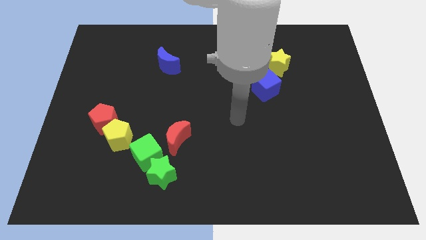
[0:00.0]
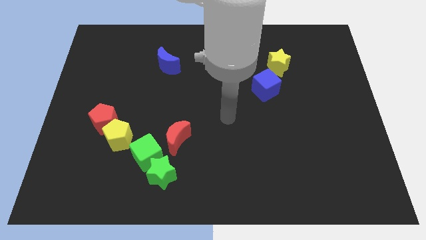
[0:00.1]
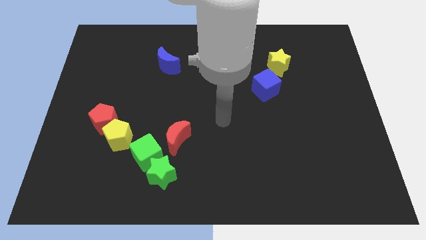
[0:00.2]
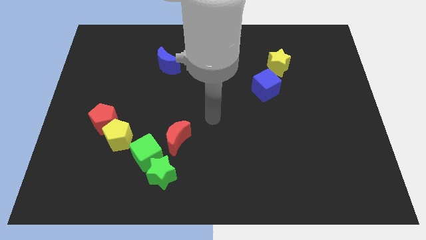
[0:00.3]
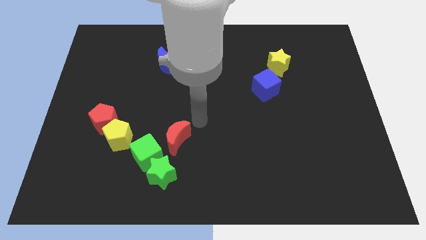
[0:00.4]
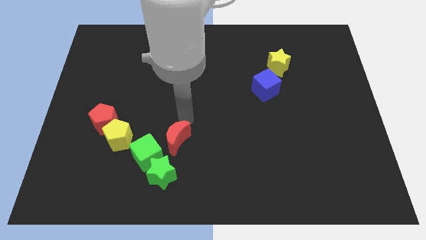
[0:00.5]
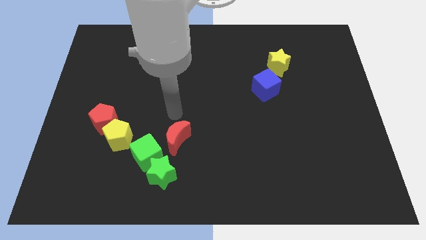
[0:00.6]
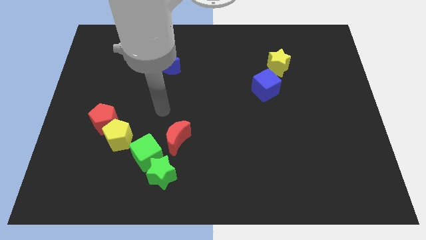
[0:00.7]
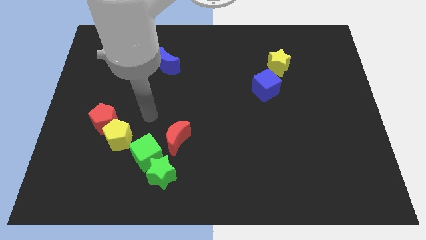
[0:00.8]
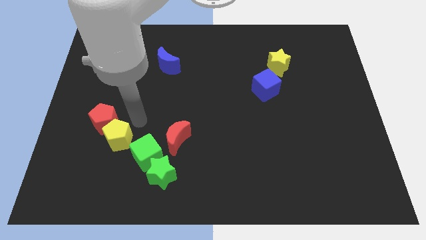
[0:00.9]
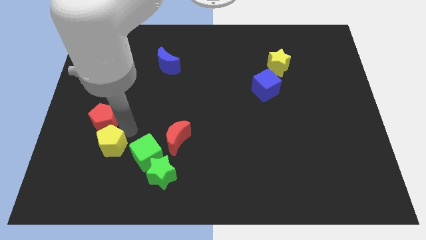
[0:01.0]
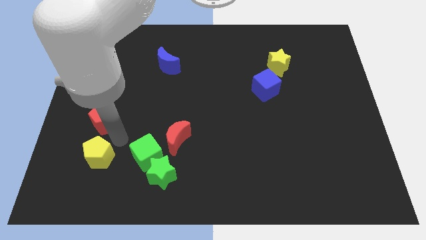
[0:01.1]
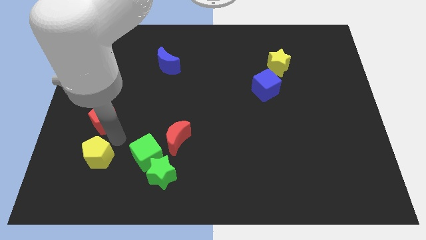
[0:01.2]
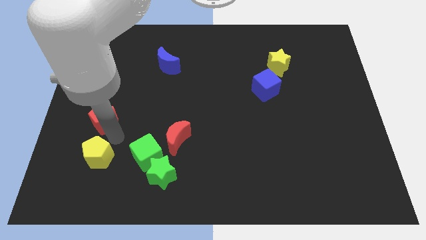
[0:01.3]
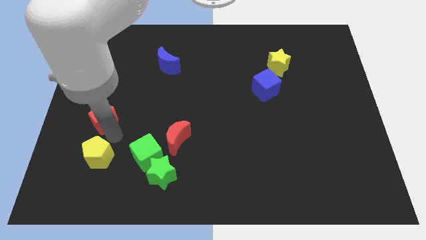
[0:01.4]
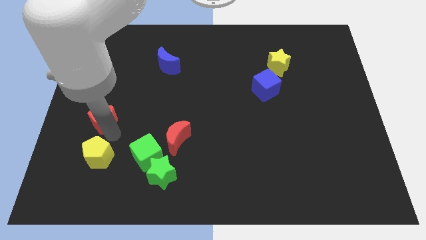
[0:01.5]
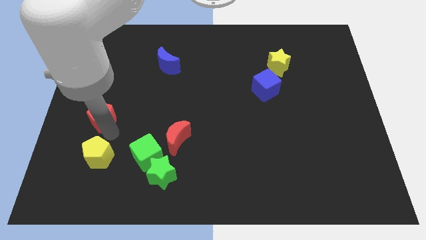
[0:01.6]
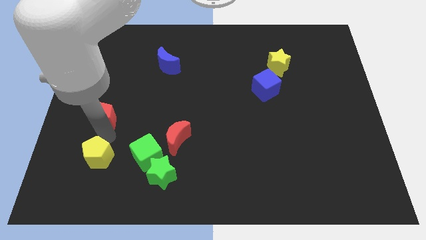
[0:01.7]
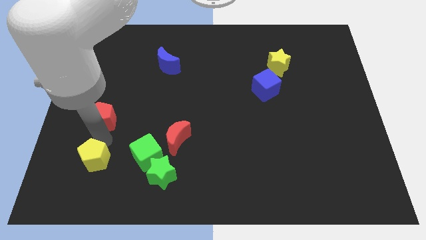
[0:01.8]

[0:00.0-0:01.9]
separate the red pentagon from the yellow pentagon

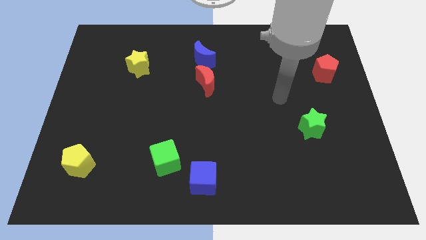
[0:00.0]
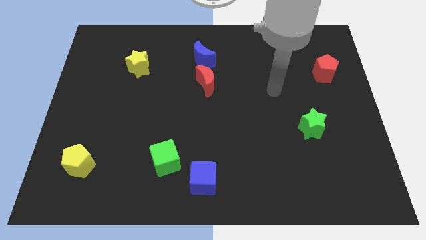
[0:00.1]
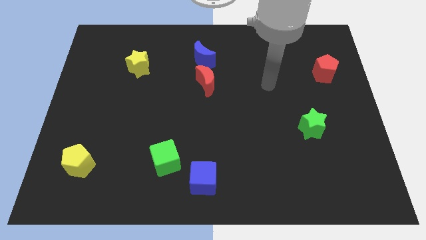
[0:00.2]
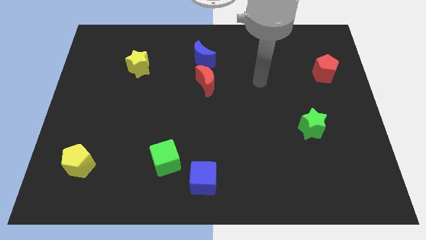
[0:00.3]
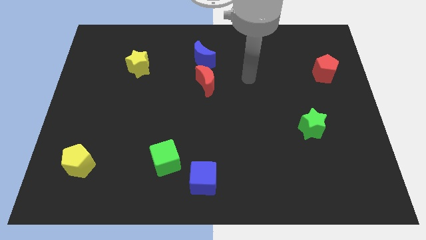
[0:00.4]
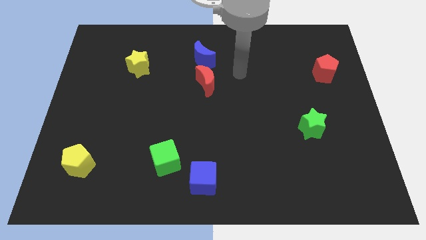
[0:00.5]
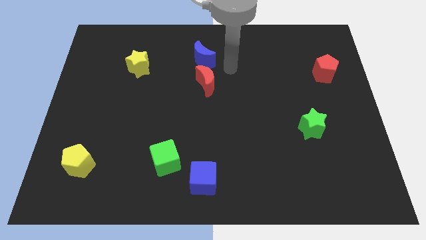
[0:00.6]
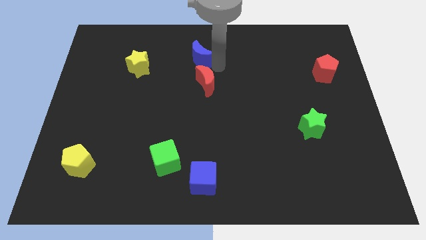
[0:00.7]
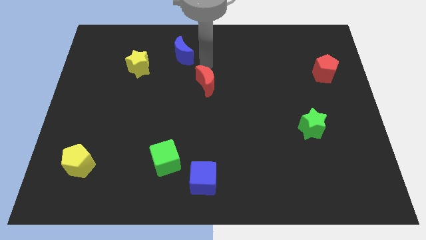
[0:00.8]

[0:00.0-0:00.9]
move the red moon away from the blue moon

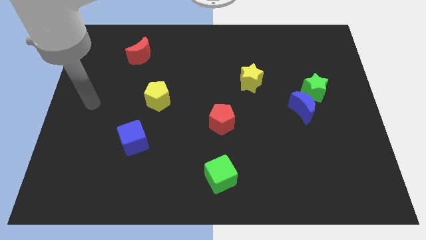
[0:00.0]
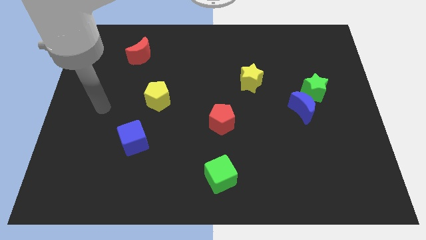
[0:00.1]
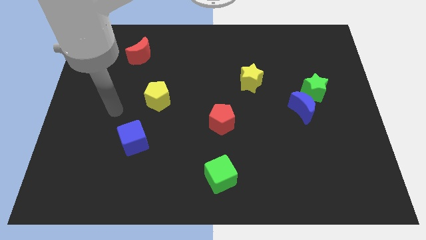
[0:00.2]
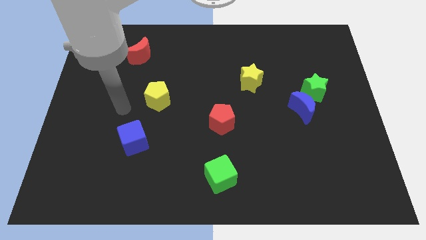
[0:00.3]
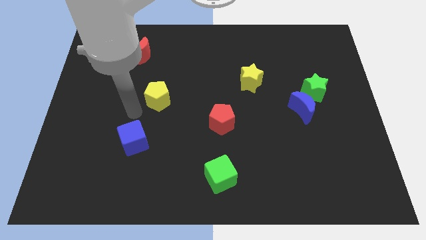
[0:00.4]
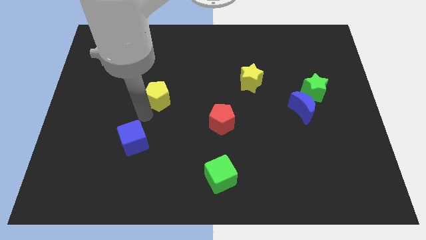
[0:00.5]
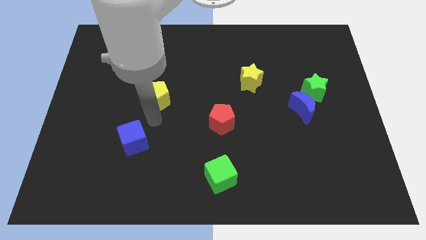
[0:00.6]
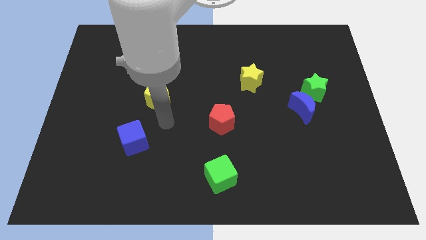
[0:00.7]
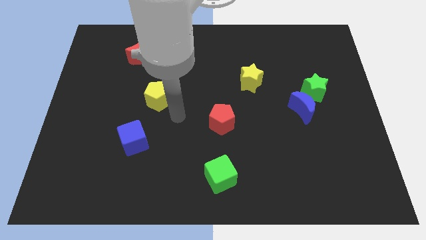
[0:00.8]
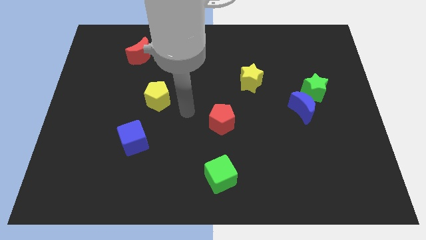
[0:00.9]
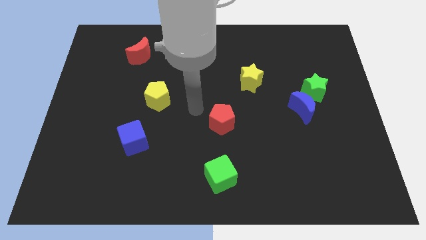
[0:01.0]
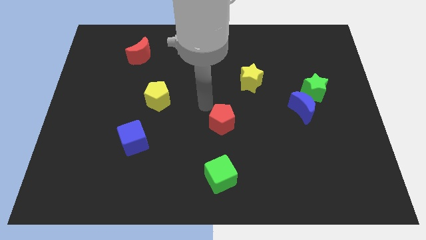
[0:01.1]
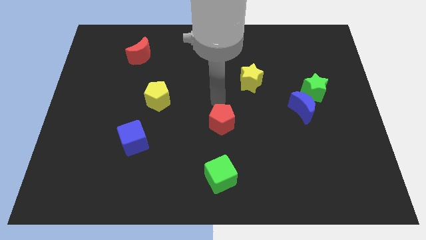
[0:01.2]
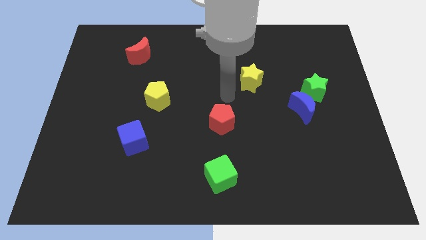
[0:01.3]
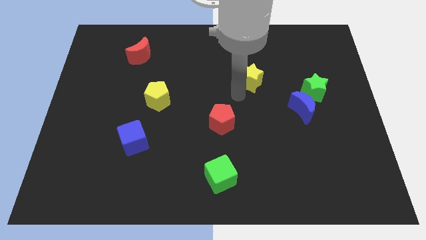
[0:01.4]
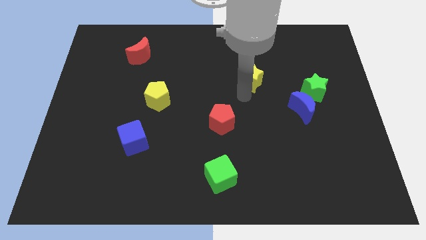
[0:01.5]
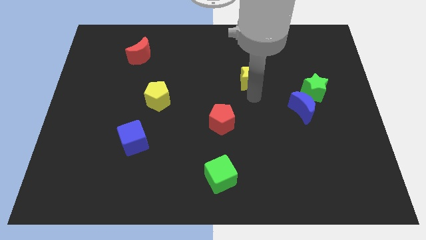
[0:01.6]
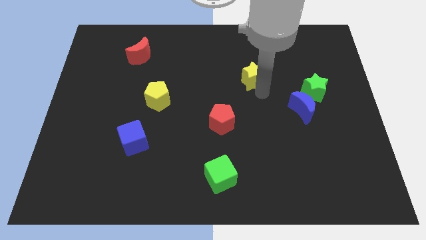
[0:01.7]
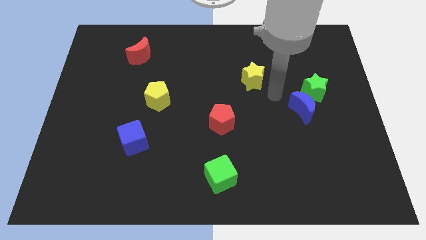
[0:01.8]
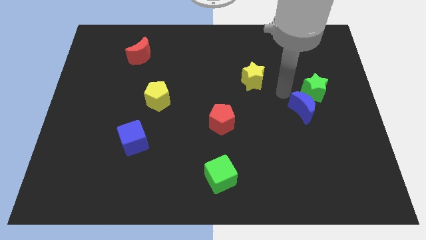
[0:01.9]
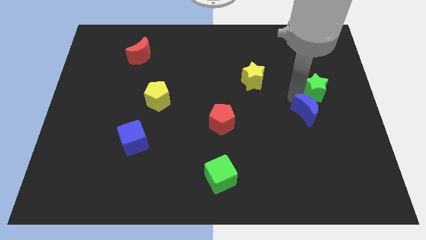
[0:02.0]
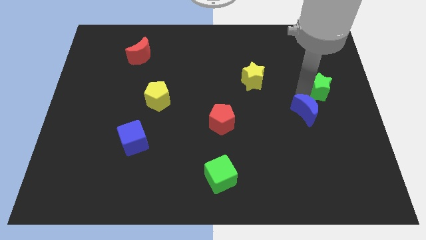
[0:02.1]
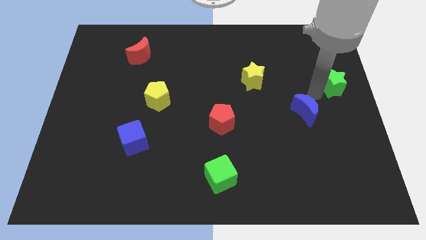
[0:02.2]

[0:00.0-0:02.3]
separate the blue moon from the green star

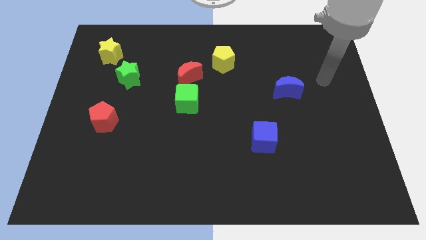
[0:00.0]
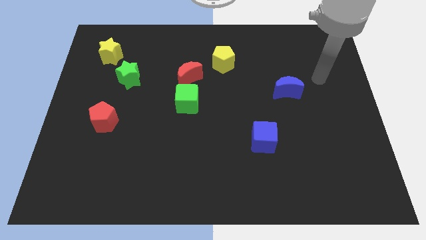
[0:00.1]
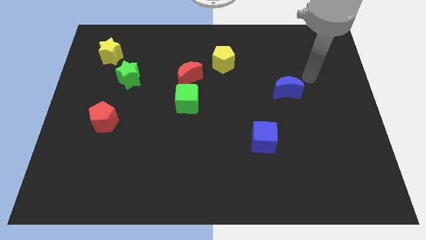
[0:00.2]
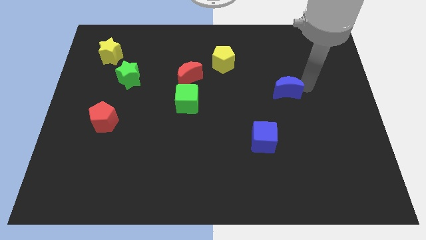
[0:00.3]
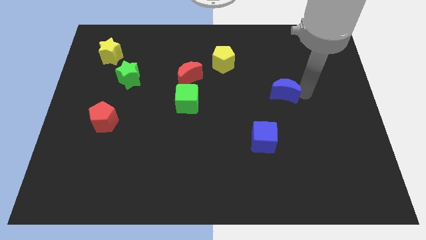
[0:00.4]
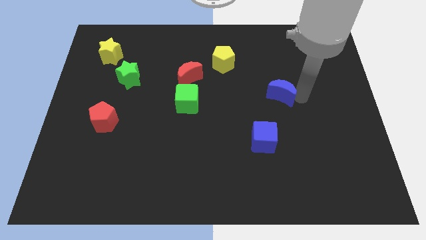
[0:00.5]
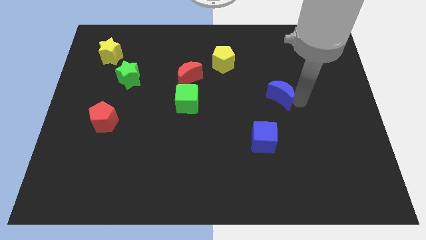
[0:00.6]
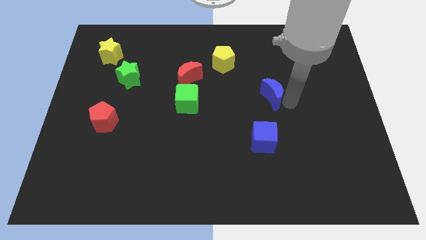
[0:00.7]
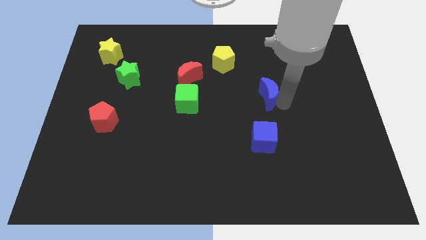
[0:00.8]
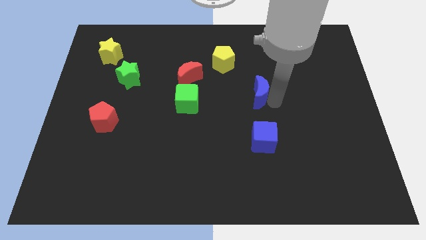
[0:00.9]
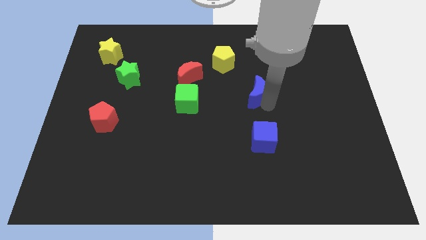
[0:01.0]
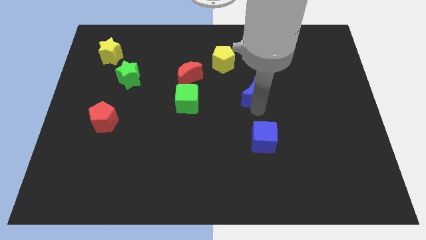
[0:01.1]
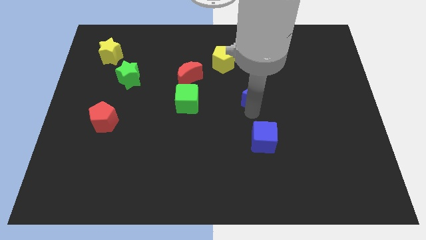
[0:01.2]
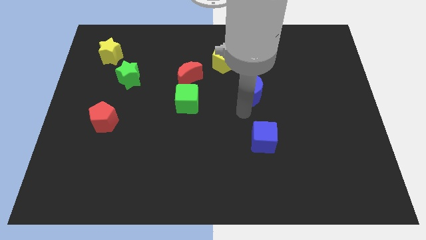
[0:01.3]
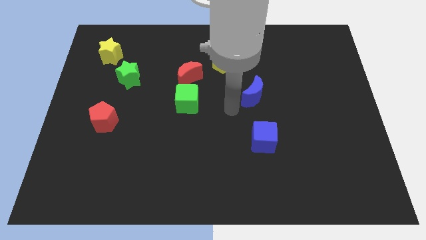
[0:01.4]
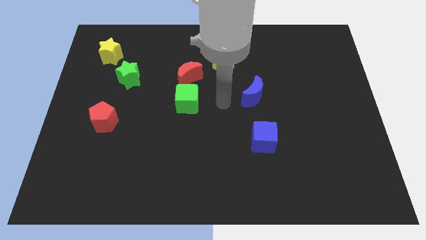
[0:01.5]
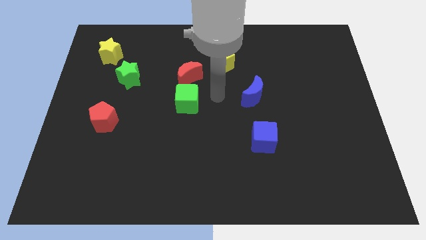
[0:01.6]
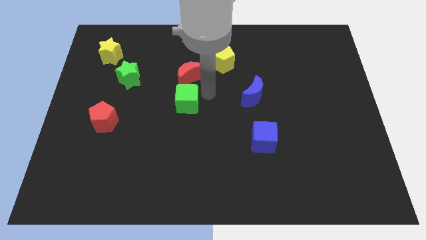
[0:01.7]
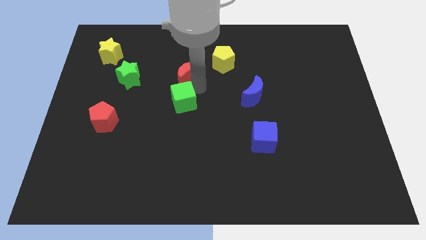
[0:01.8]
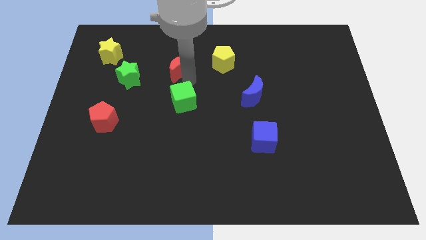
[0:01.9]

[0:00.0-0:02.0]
separate the green cube from the red moon

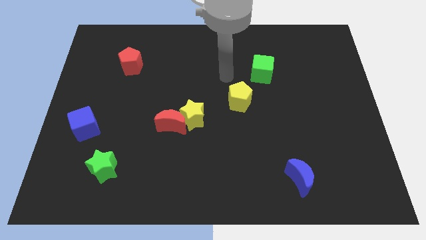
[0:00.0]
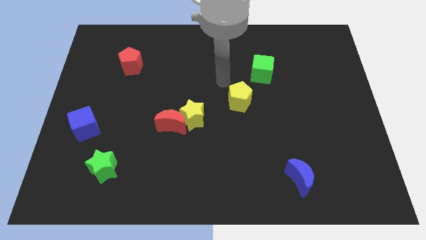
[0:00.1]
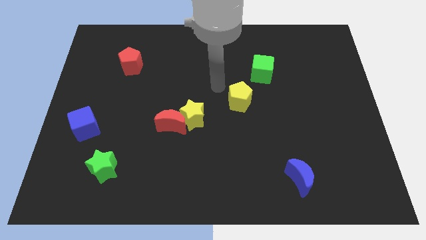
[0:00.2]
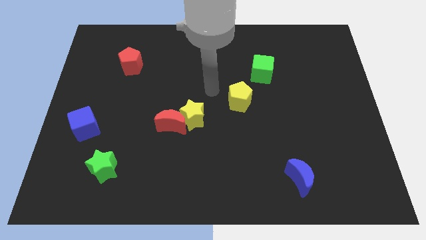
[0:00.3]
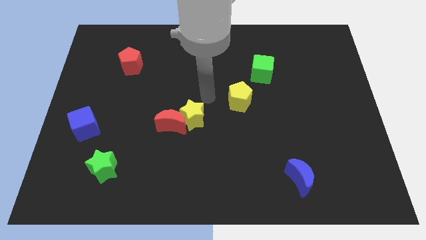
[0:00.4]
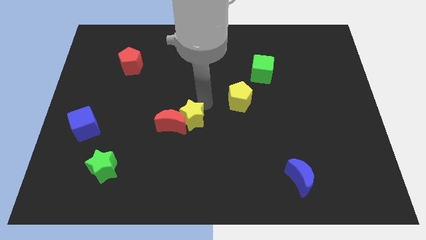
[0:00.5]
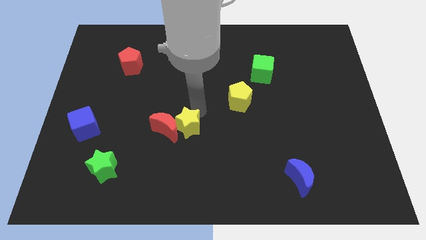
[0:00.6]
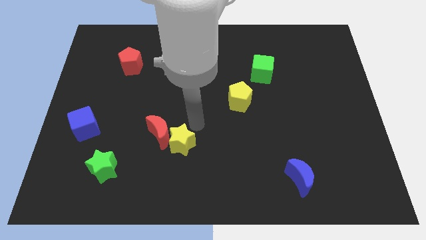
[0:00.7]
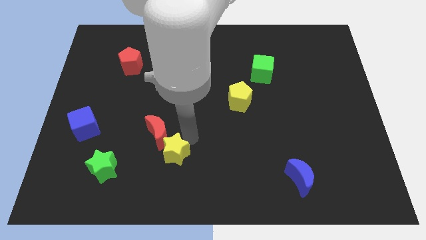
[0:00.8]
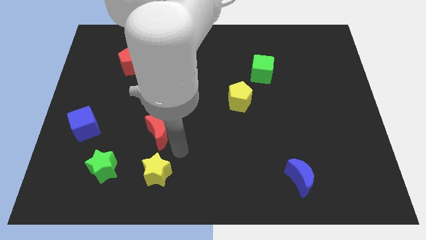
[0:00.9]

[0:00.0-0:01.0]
pull the red moon apart from the yellow star

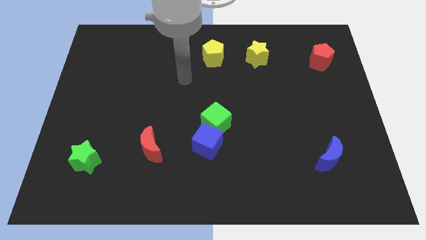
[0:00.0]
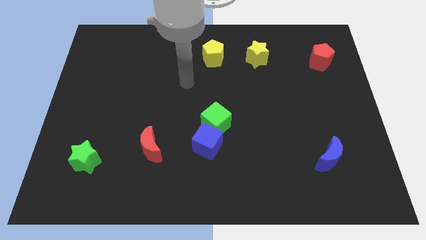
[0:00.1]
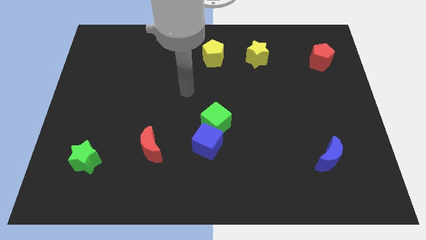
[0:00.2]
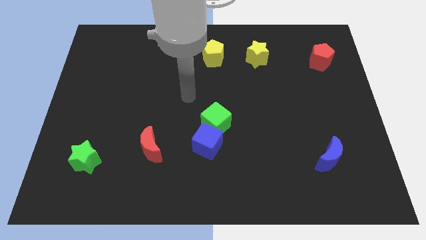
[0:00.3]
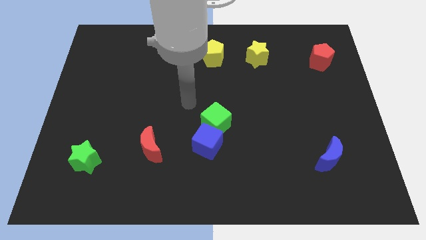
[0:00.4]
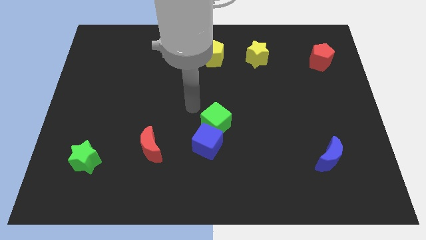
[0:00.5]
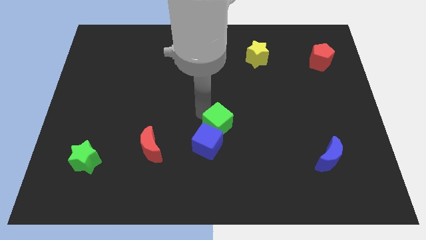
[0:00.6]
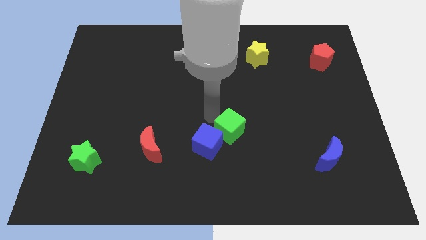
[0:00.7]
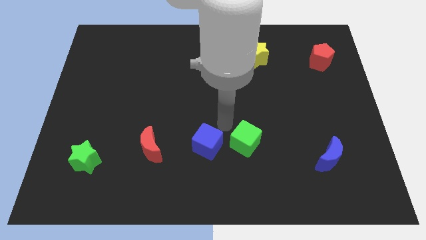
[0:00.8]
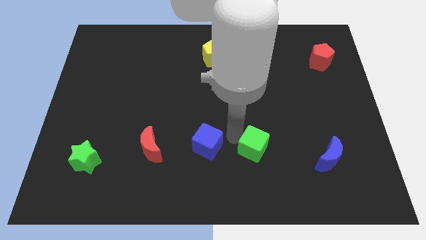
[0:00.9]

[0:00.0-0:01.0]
separate the blue cube from the green cube

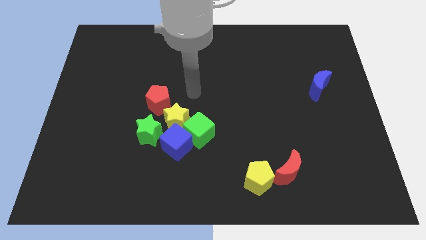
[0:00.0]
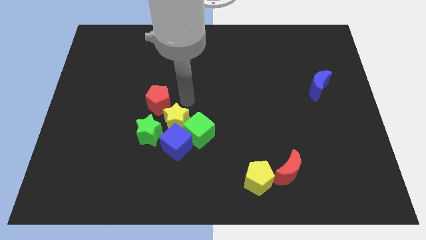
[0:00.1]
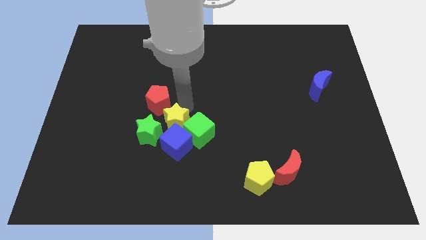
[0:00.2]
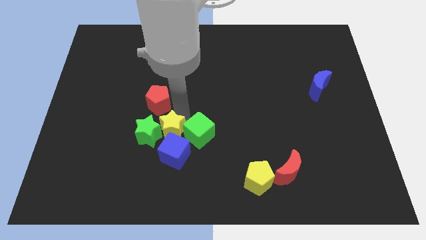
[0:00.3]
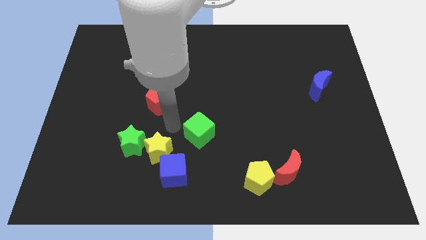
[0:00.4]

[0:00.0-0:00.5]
move the green cube away from the blue cube and yellow star
